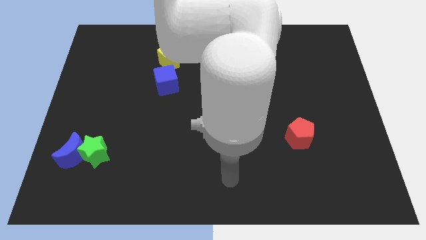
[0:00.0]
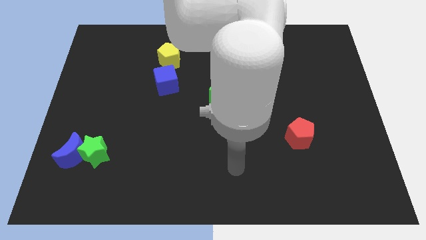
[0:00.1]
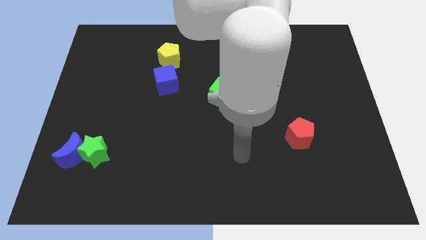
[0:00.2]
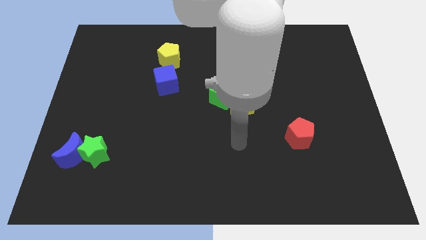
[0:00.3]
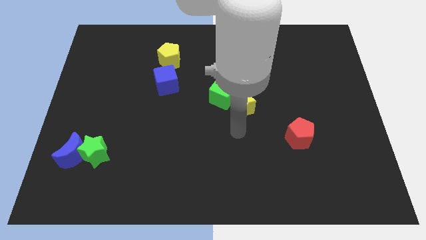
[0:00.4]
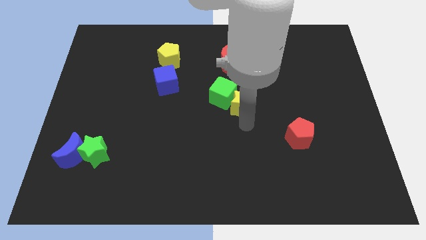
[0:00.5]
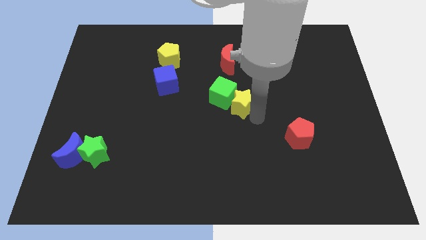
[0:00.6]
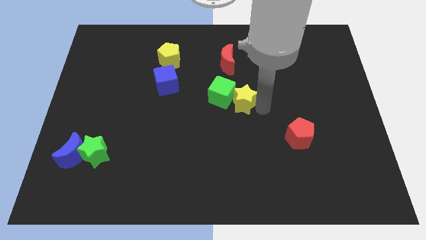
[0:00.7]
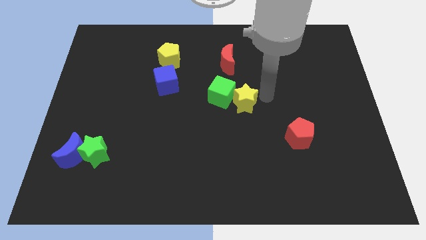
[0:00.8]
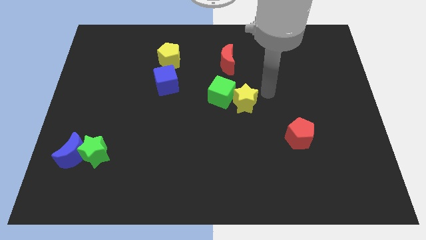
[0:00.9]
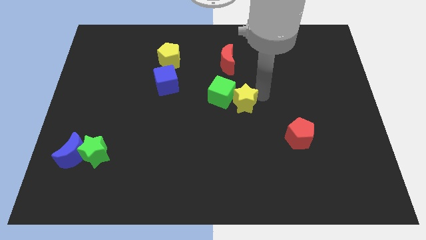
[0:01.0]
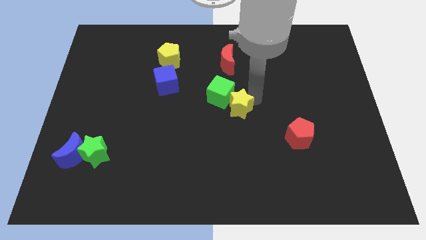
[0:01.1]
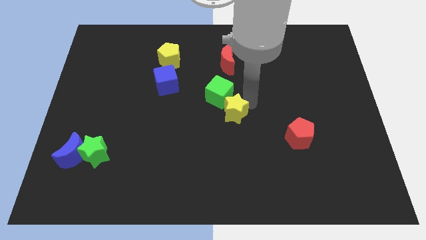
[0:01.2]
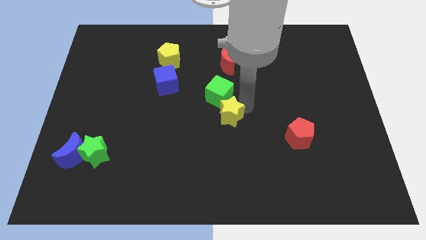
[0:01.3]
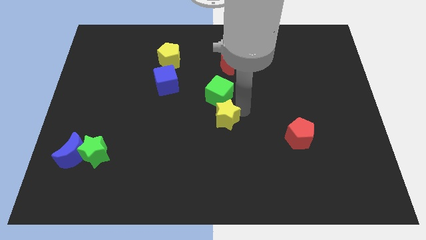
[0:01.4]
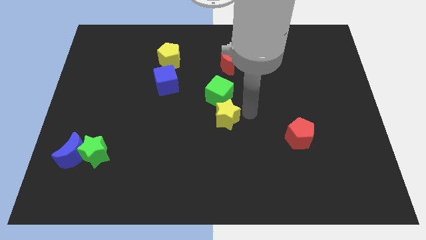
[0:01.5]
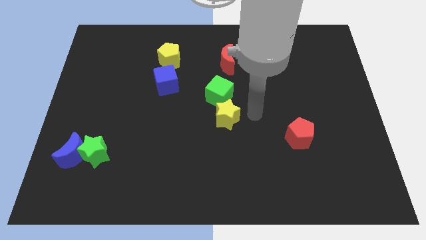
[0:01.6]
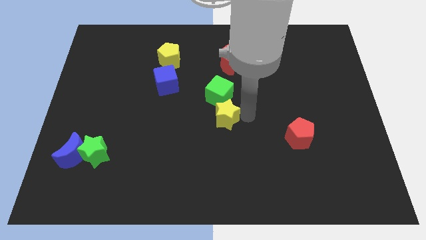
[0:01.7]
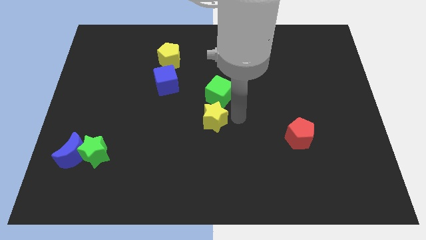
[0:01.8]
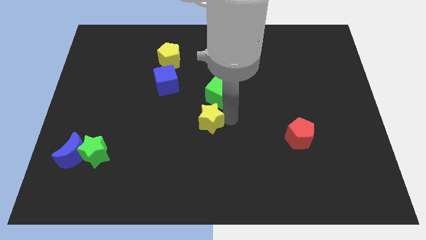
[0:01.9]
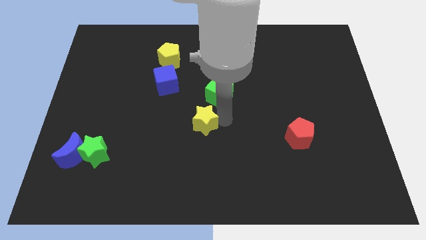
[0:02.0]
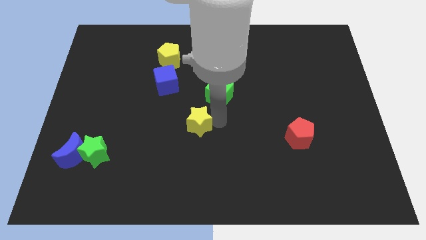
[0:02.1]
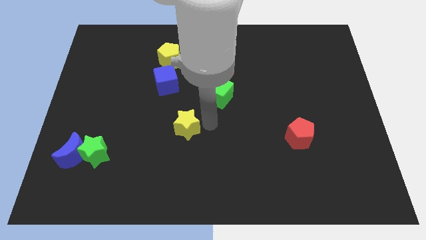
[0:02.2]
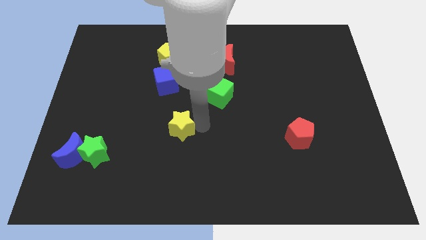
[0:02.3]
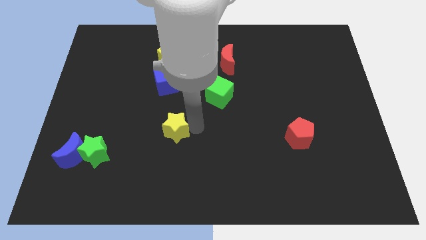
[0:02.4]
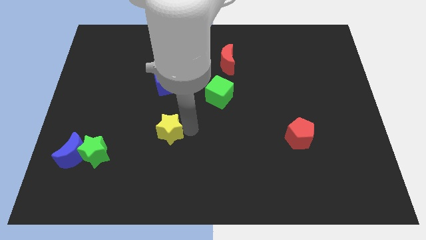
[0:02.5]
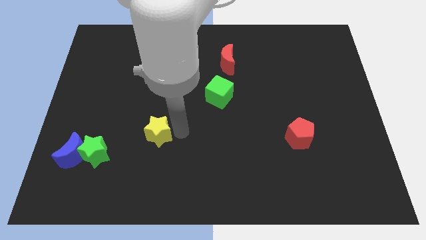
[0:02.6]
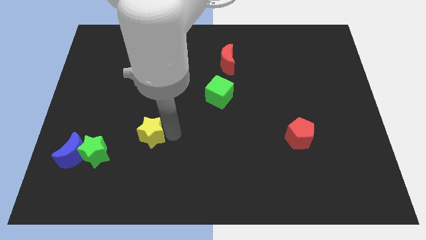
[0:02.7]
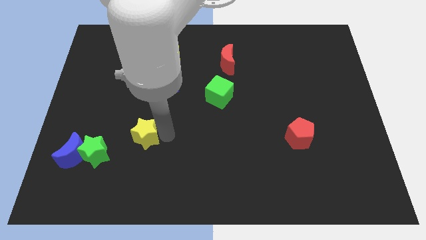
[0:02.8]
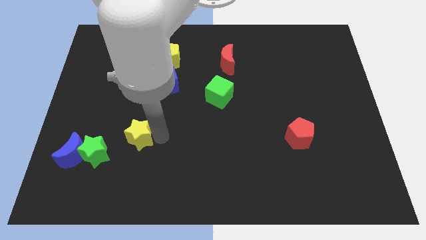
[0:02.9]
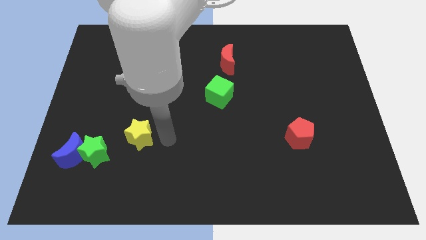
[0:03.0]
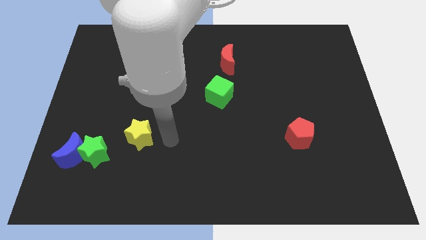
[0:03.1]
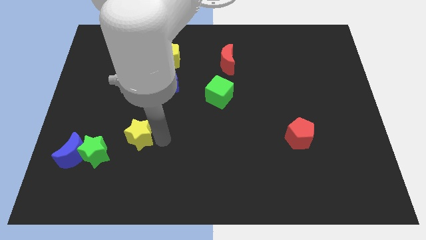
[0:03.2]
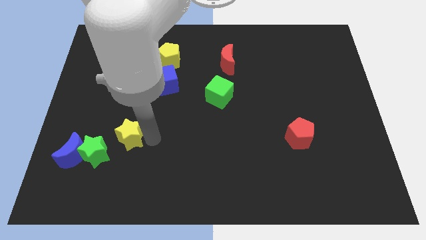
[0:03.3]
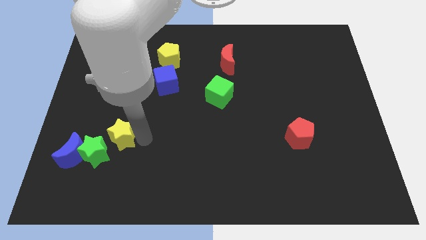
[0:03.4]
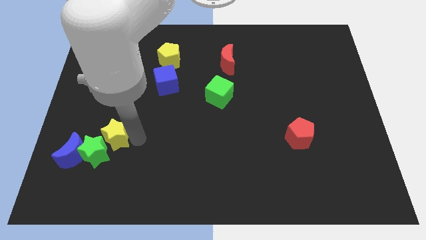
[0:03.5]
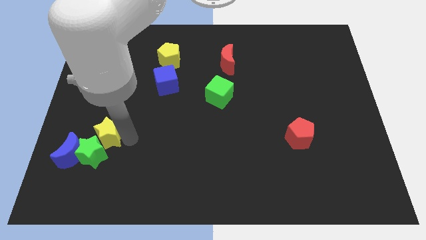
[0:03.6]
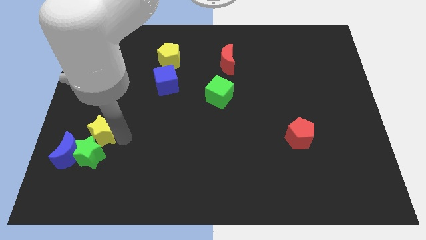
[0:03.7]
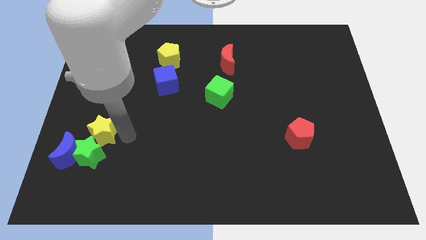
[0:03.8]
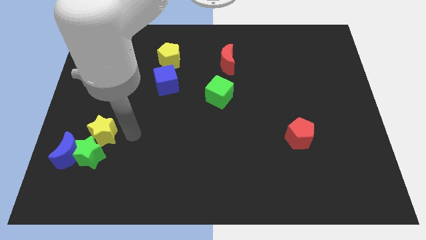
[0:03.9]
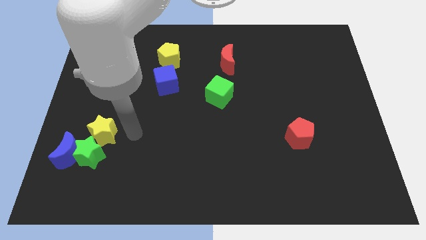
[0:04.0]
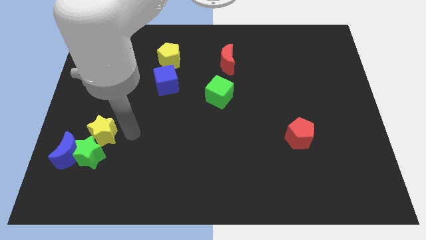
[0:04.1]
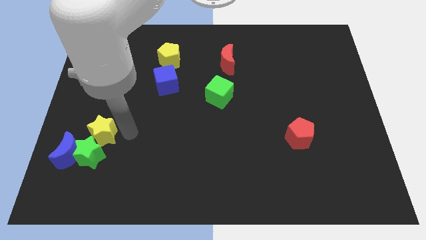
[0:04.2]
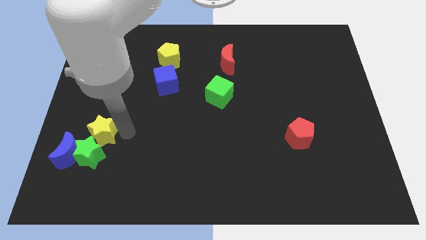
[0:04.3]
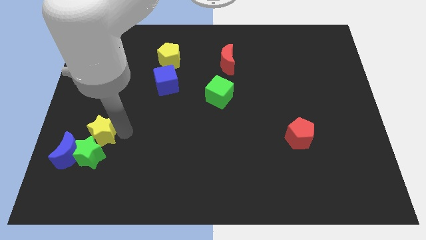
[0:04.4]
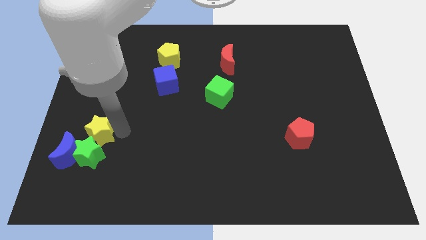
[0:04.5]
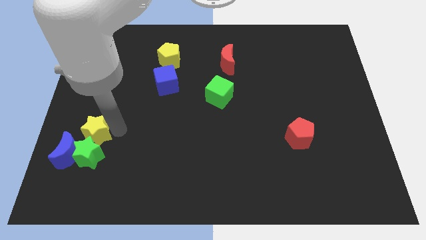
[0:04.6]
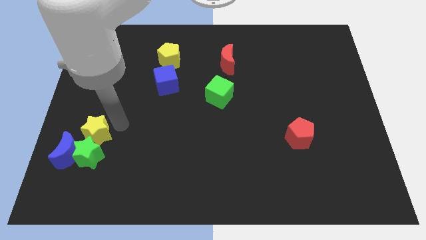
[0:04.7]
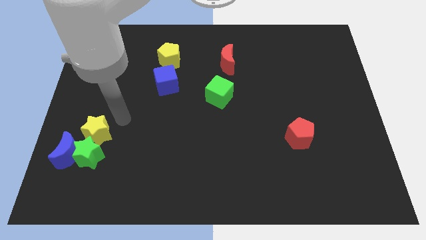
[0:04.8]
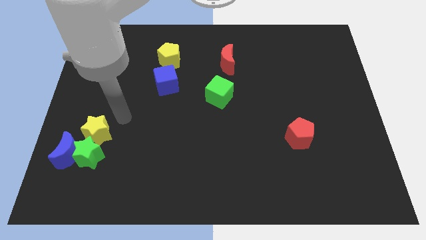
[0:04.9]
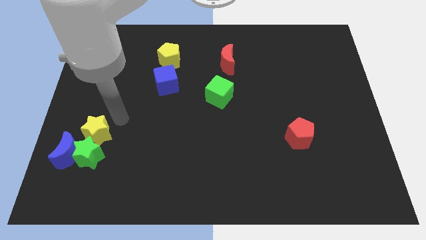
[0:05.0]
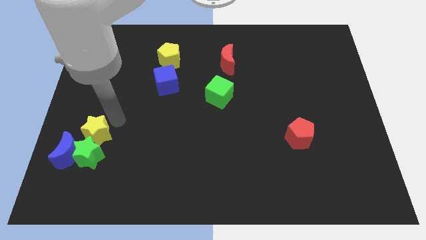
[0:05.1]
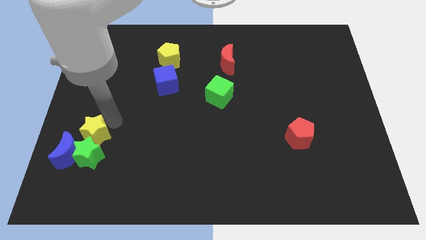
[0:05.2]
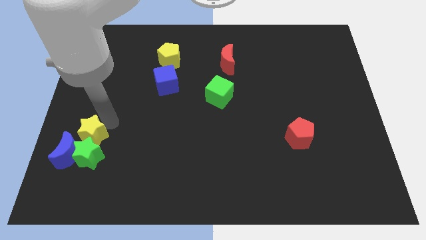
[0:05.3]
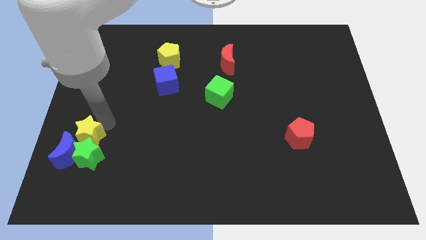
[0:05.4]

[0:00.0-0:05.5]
move the yellow star towards the blue moon

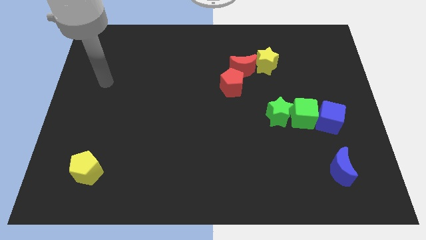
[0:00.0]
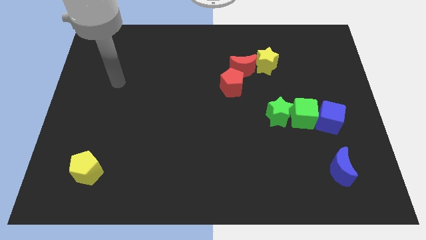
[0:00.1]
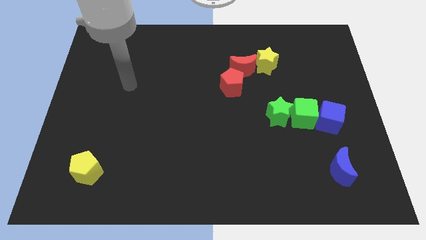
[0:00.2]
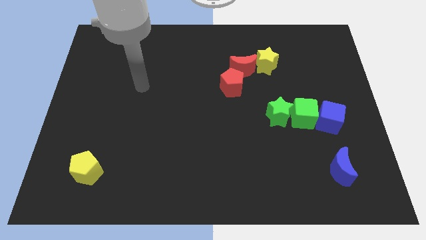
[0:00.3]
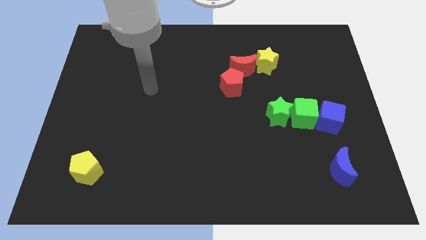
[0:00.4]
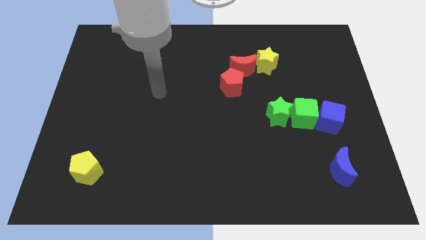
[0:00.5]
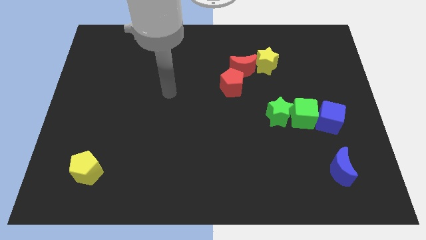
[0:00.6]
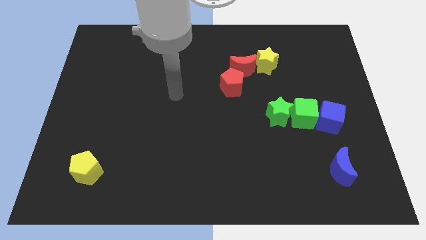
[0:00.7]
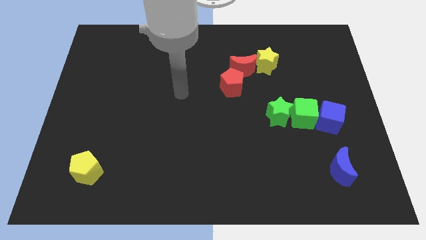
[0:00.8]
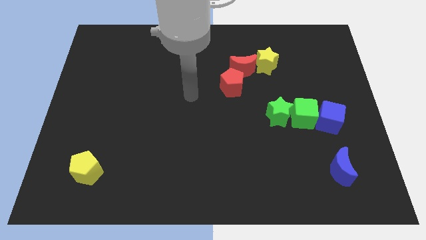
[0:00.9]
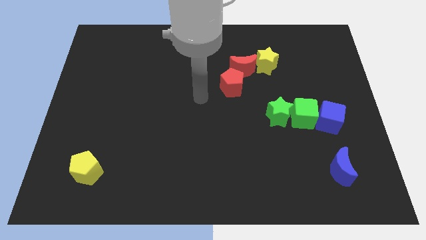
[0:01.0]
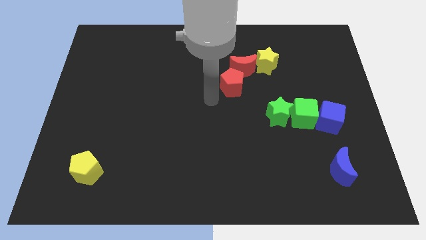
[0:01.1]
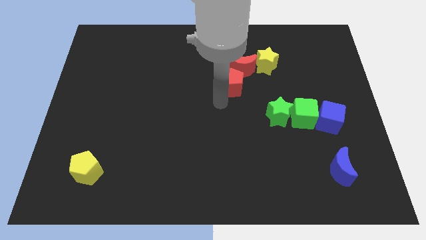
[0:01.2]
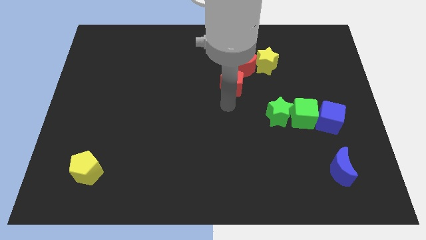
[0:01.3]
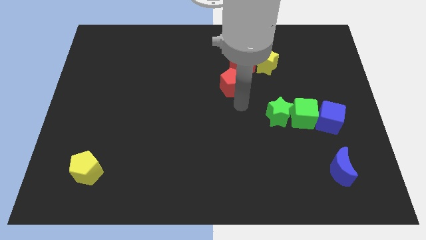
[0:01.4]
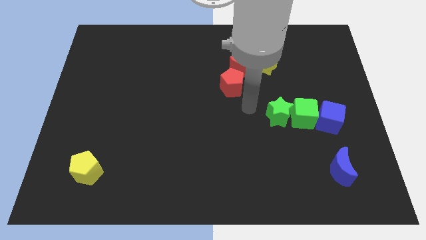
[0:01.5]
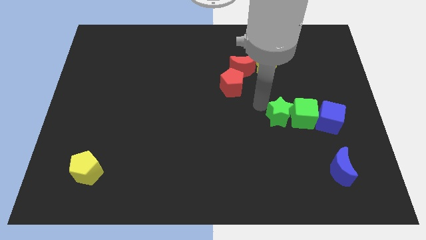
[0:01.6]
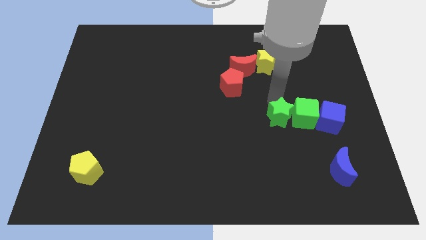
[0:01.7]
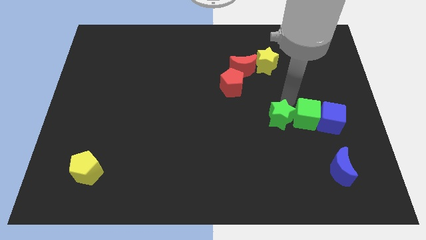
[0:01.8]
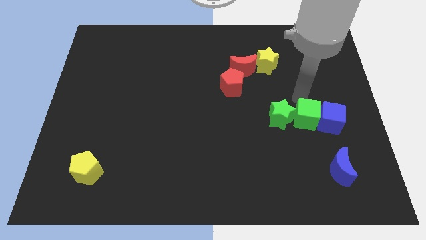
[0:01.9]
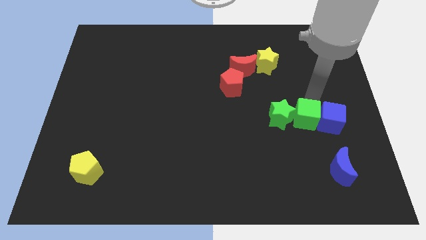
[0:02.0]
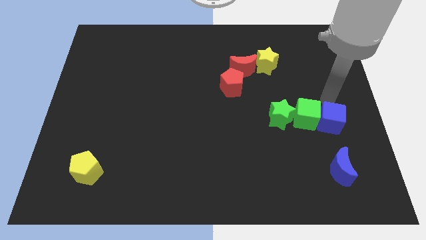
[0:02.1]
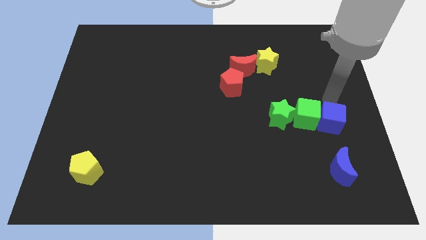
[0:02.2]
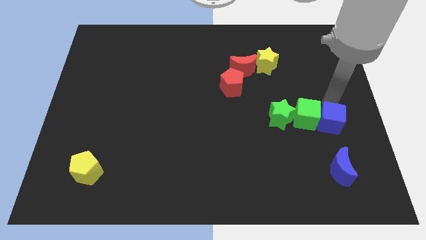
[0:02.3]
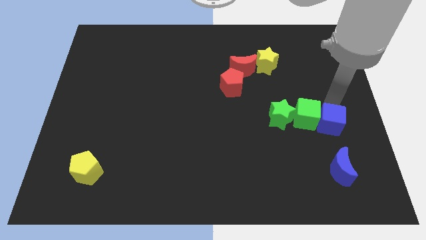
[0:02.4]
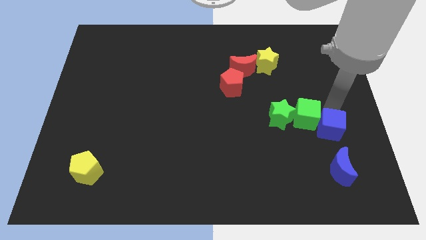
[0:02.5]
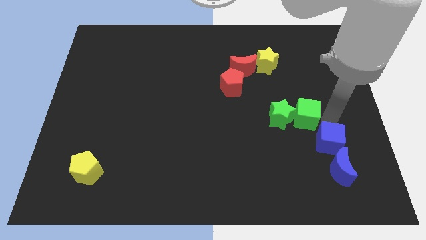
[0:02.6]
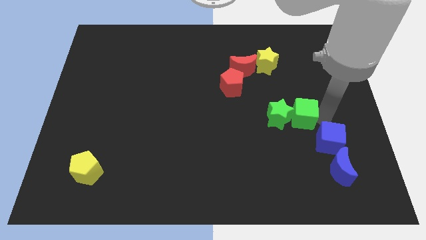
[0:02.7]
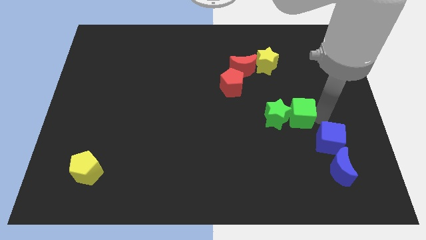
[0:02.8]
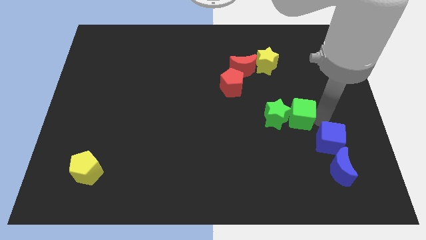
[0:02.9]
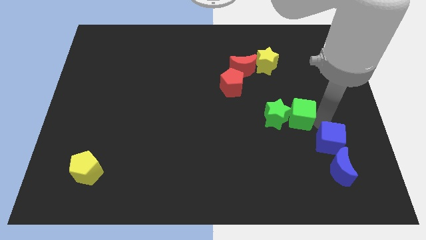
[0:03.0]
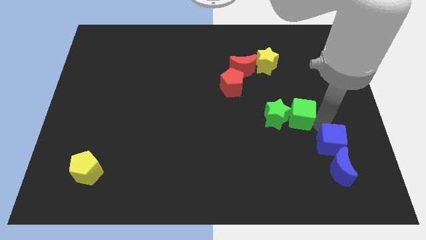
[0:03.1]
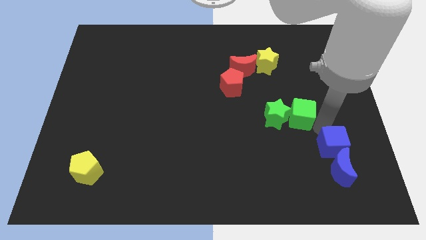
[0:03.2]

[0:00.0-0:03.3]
move the blue cube towards the blue moon
